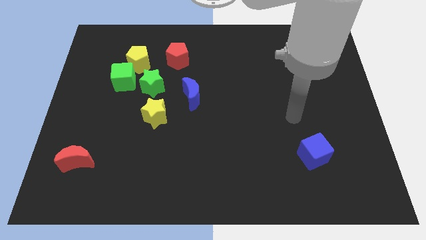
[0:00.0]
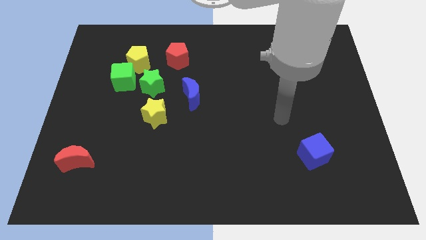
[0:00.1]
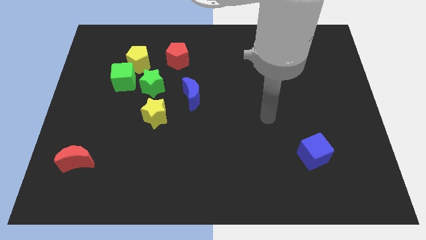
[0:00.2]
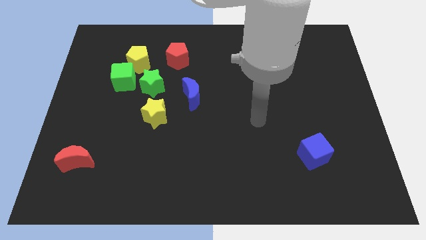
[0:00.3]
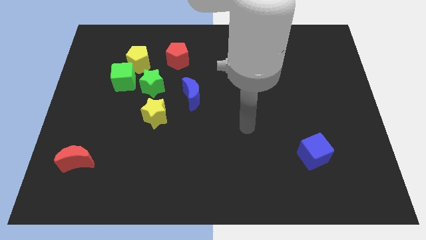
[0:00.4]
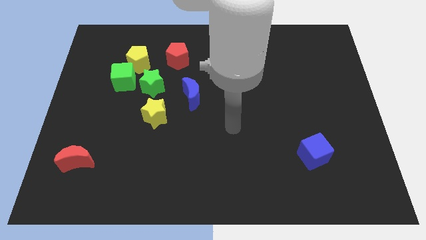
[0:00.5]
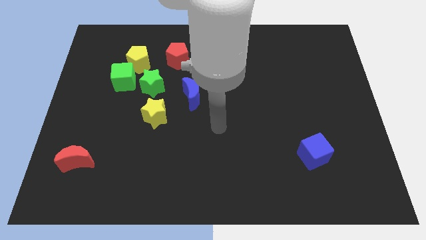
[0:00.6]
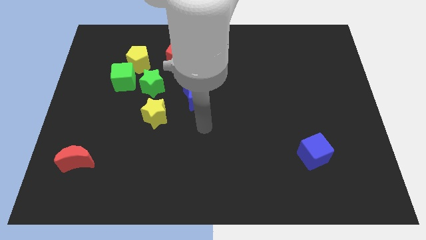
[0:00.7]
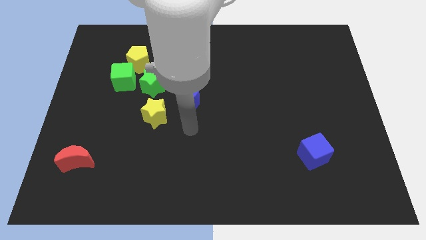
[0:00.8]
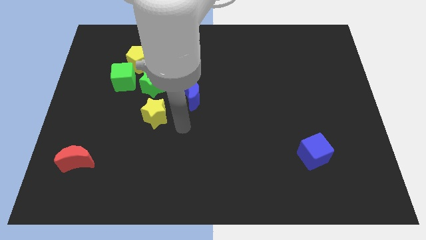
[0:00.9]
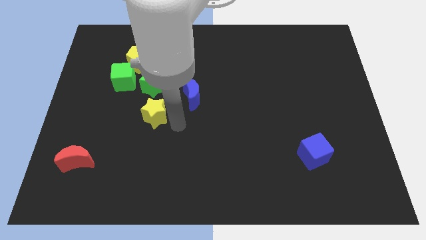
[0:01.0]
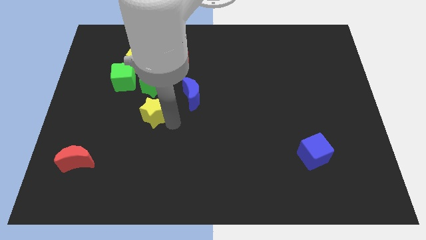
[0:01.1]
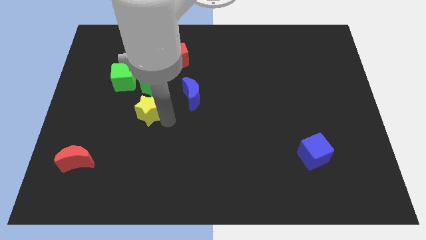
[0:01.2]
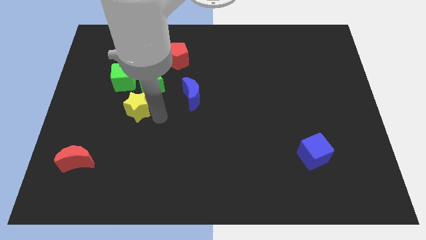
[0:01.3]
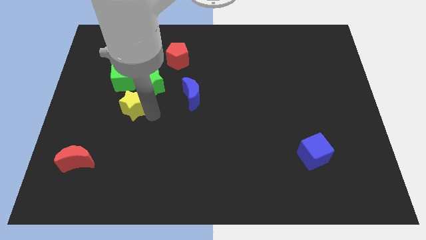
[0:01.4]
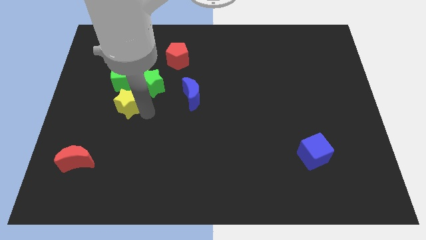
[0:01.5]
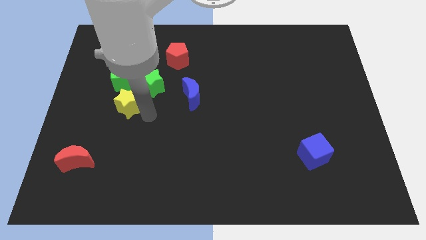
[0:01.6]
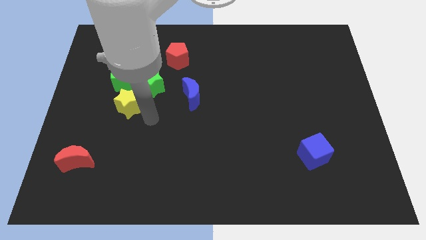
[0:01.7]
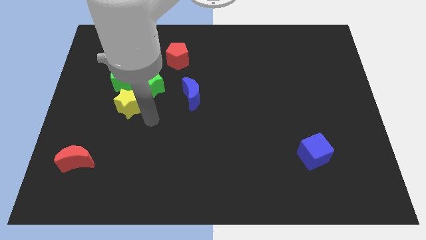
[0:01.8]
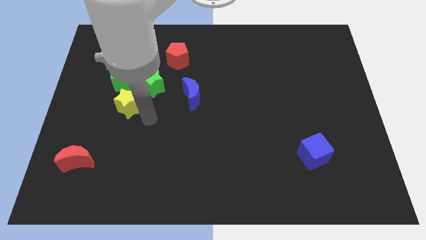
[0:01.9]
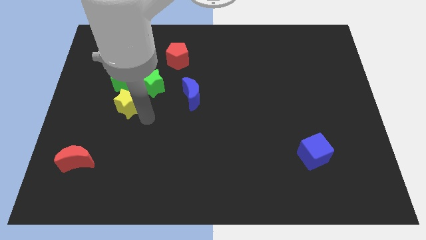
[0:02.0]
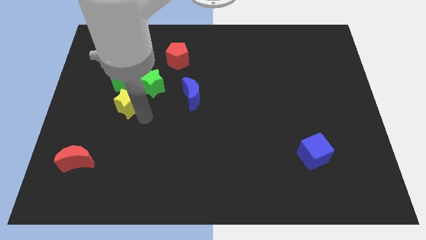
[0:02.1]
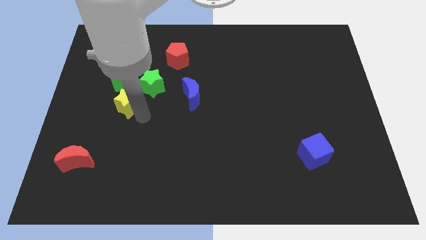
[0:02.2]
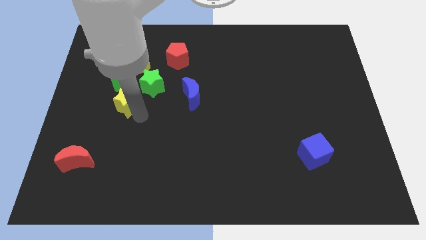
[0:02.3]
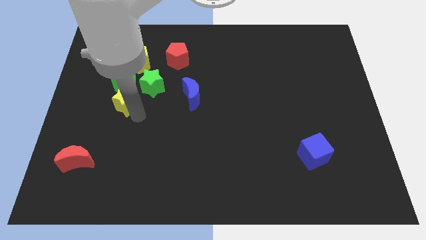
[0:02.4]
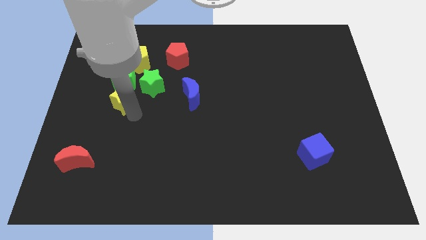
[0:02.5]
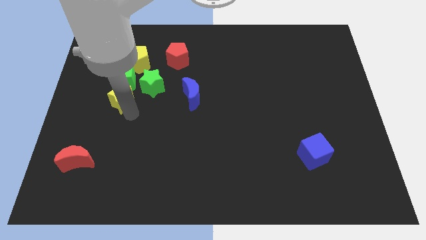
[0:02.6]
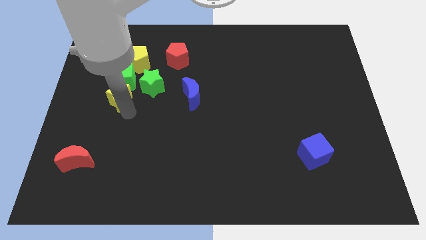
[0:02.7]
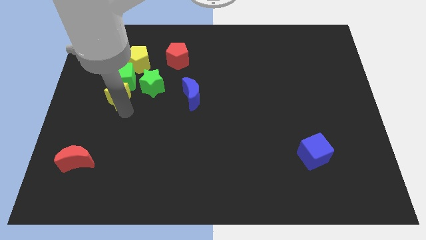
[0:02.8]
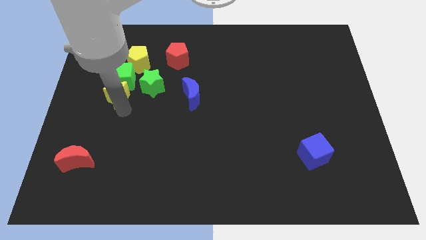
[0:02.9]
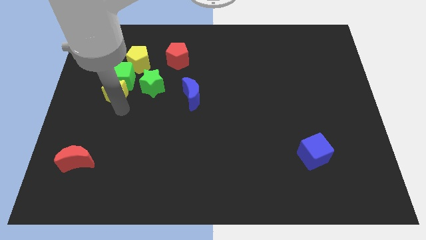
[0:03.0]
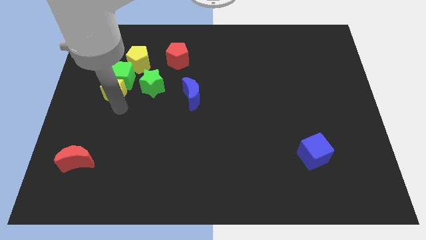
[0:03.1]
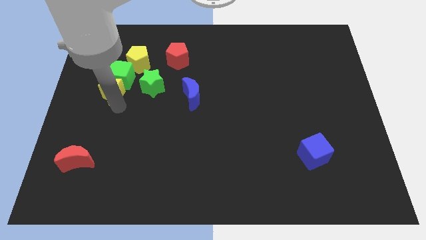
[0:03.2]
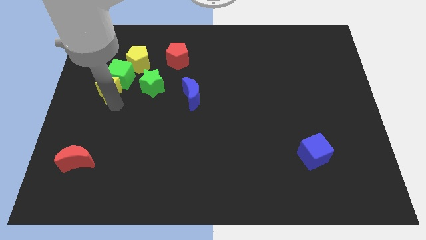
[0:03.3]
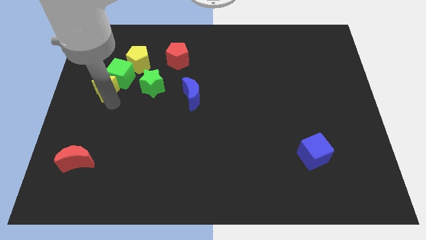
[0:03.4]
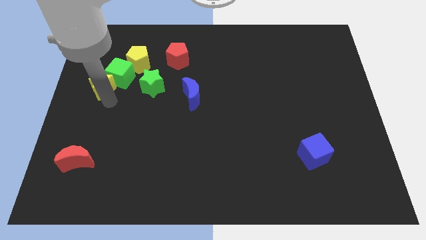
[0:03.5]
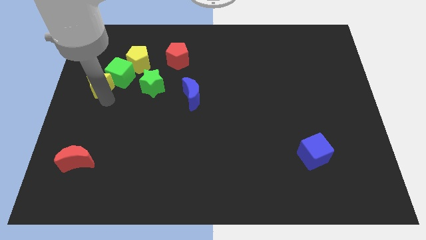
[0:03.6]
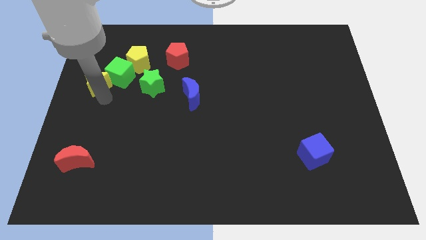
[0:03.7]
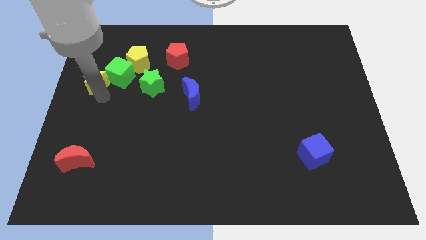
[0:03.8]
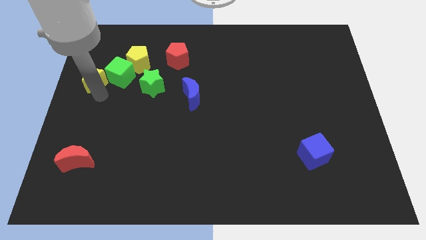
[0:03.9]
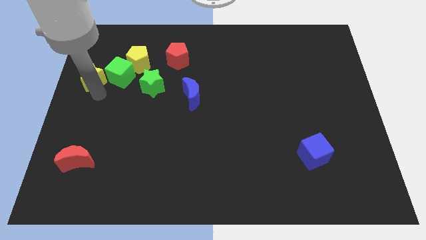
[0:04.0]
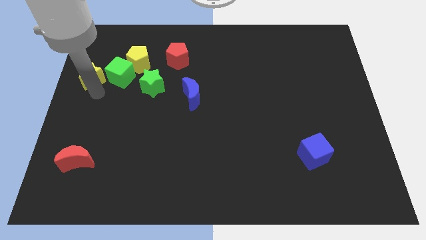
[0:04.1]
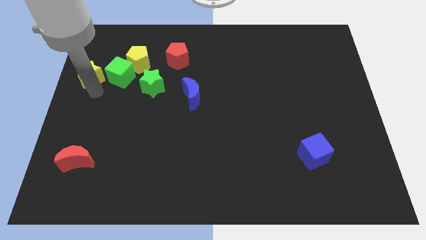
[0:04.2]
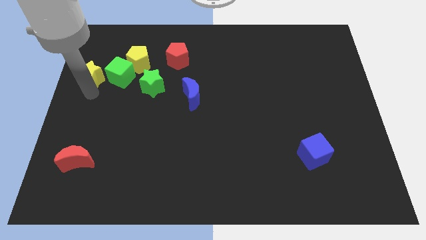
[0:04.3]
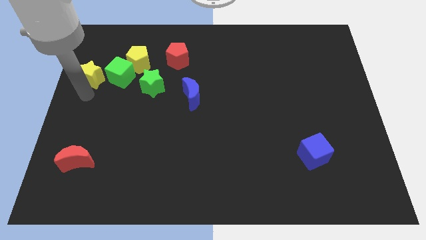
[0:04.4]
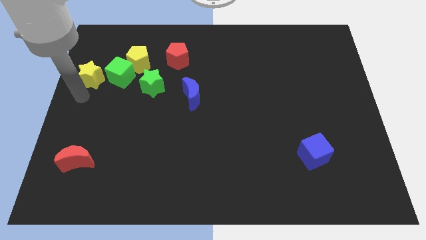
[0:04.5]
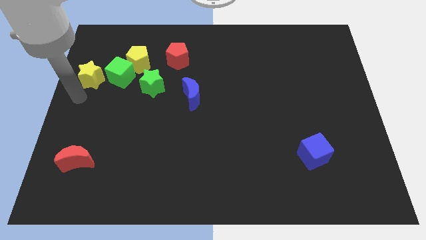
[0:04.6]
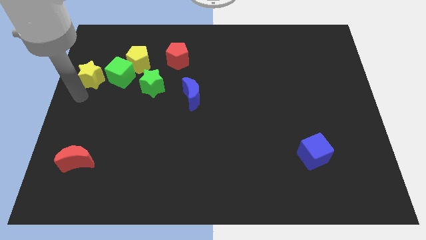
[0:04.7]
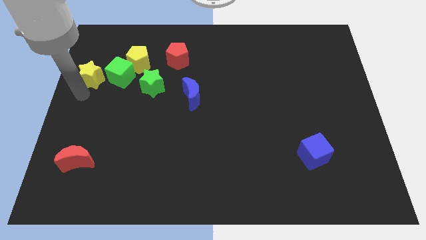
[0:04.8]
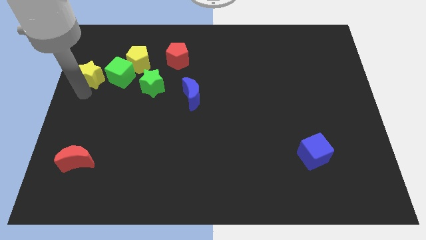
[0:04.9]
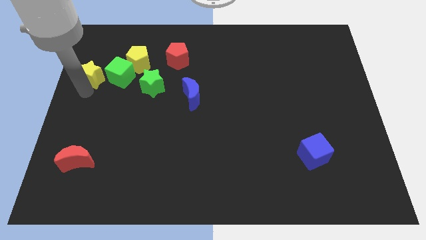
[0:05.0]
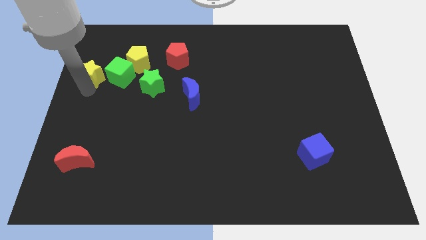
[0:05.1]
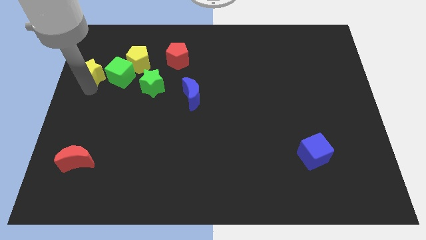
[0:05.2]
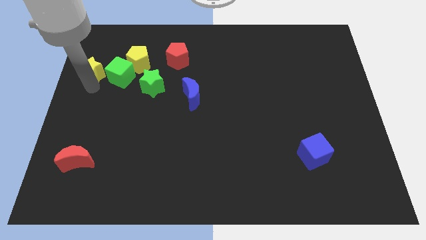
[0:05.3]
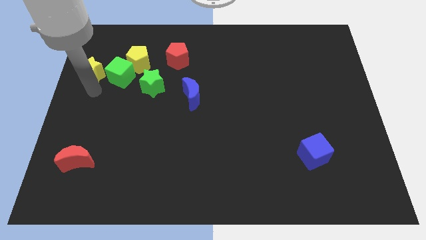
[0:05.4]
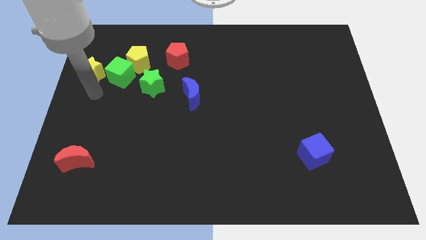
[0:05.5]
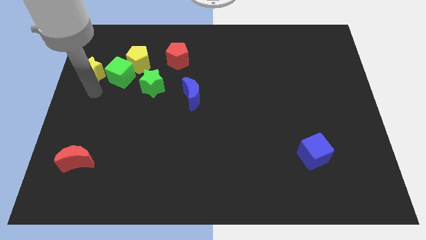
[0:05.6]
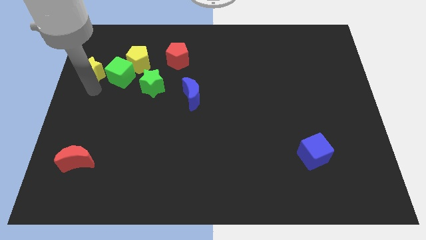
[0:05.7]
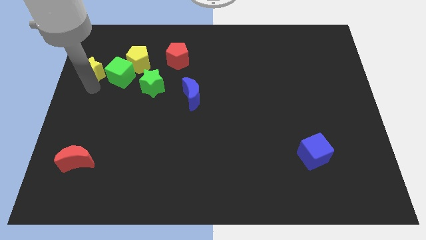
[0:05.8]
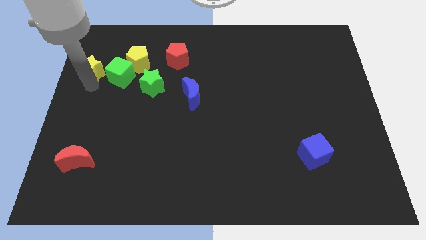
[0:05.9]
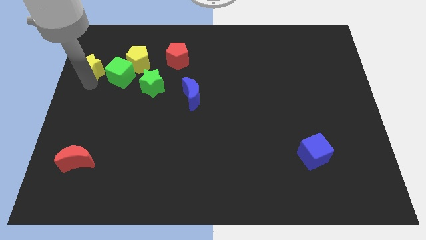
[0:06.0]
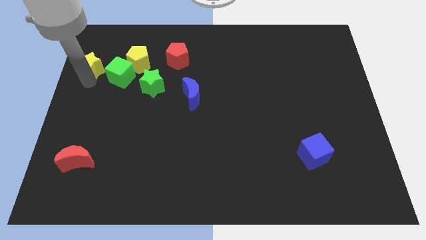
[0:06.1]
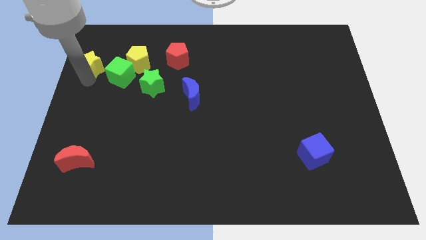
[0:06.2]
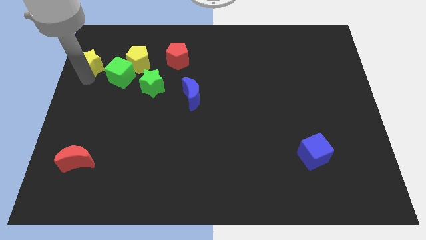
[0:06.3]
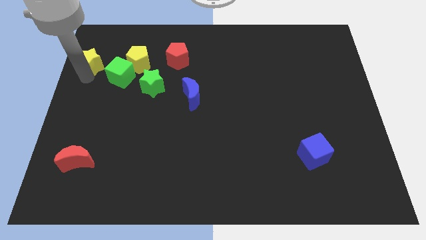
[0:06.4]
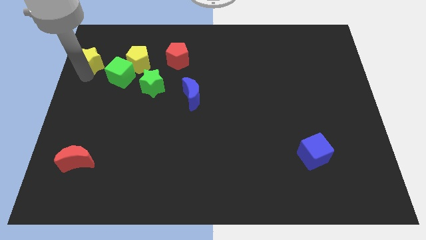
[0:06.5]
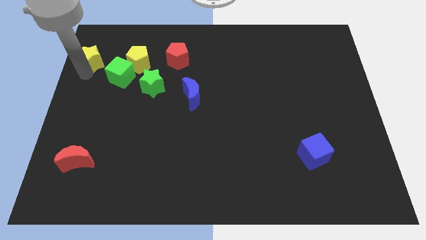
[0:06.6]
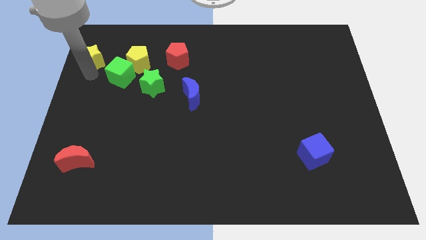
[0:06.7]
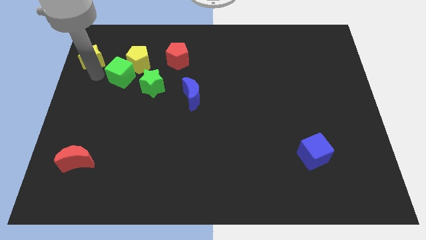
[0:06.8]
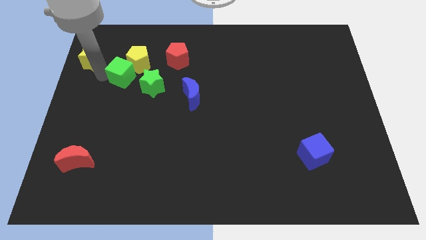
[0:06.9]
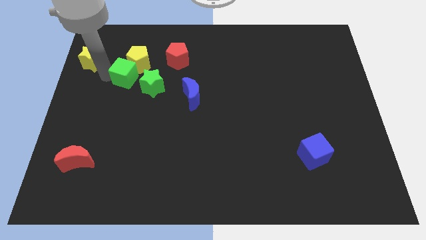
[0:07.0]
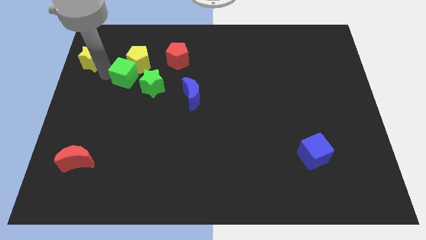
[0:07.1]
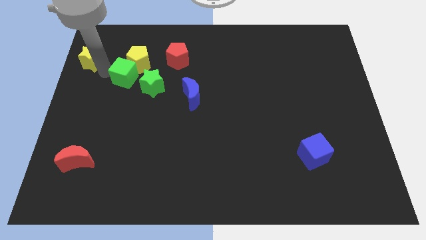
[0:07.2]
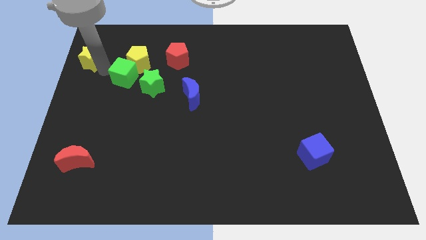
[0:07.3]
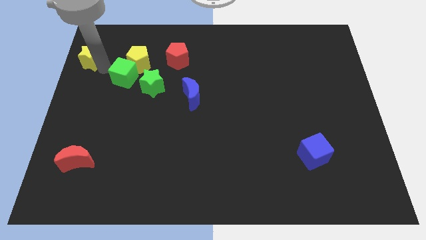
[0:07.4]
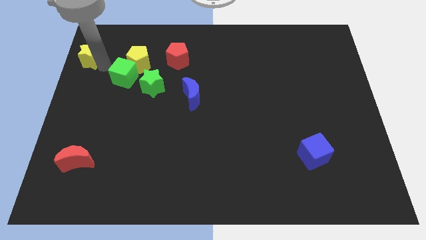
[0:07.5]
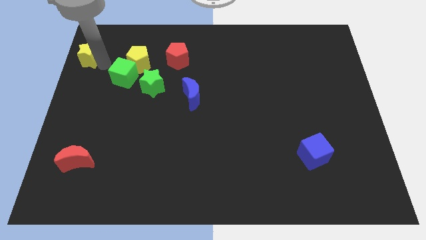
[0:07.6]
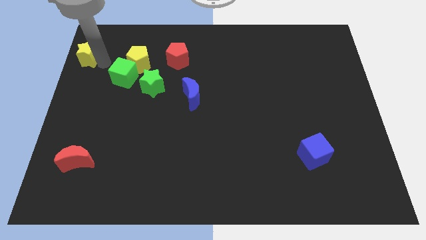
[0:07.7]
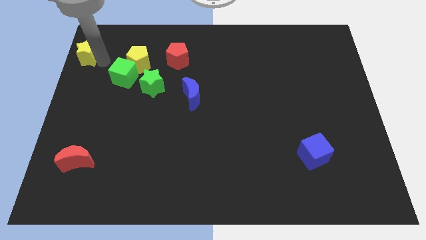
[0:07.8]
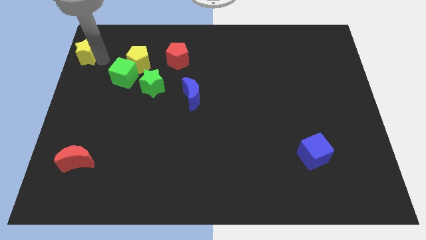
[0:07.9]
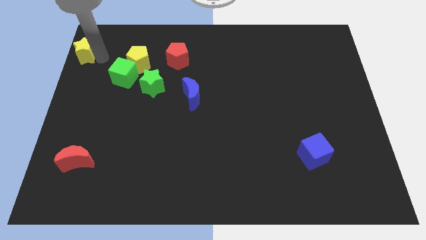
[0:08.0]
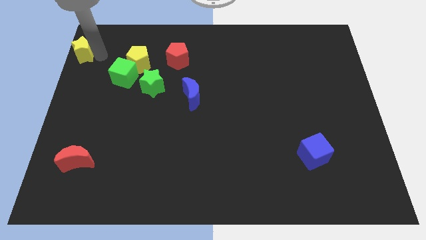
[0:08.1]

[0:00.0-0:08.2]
slide the yellow star to the top left corner
